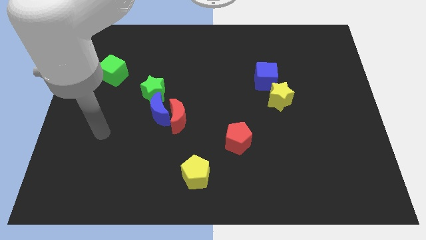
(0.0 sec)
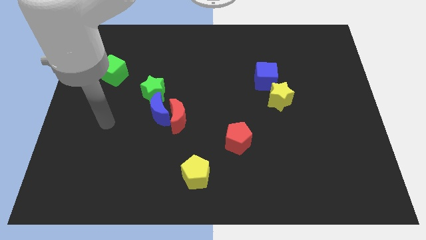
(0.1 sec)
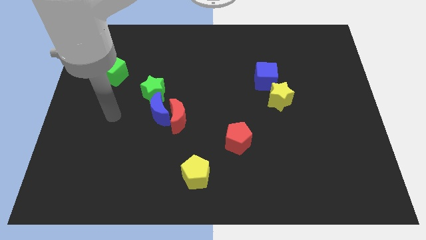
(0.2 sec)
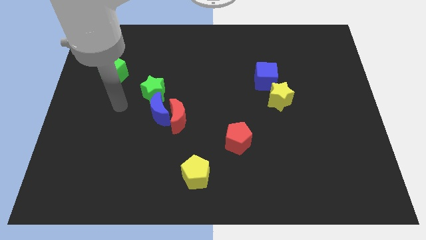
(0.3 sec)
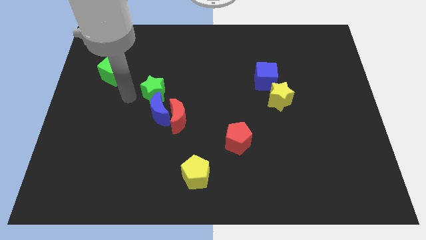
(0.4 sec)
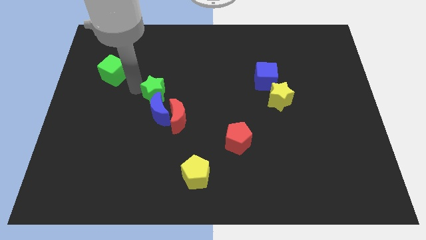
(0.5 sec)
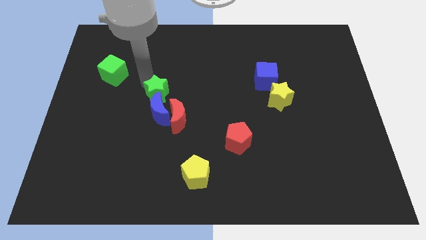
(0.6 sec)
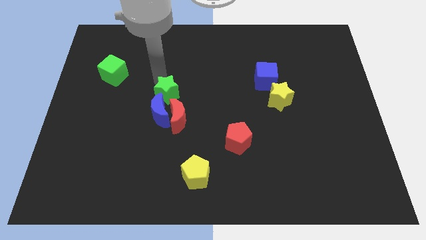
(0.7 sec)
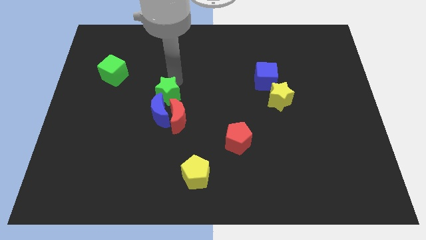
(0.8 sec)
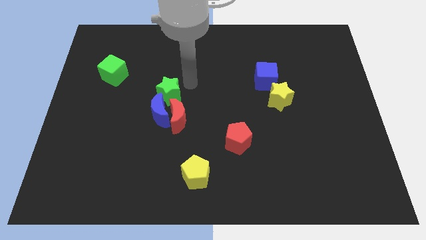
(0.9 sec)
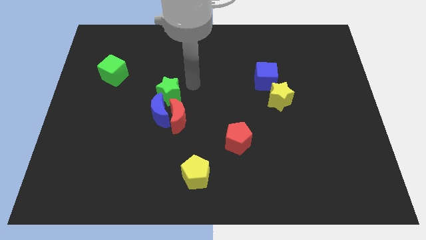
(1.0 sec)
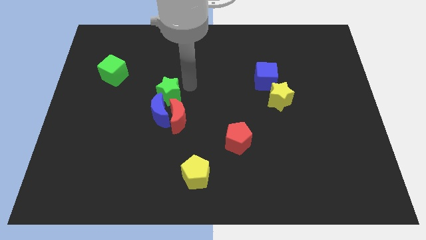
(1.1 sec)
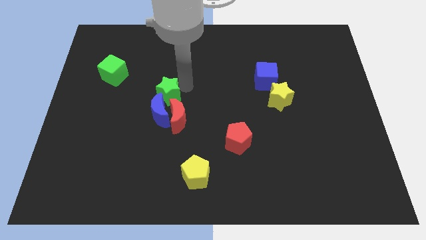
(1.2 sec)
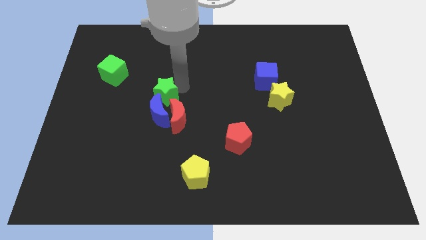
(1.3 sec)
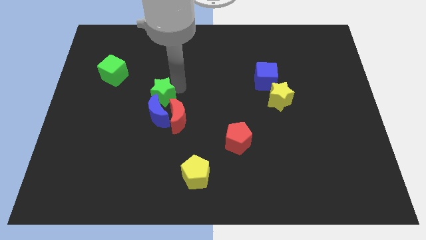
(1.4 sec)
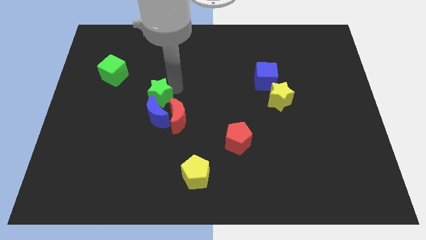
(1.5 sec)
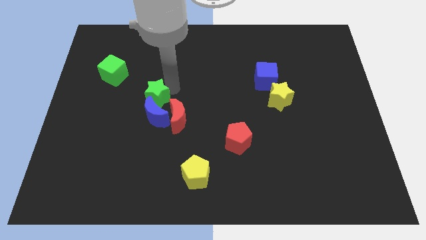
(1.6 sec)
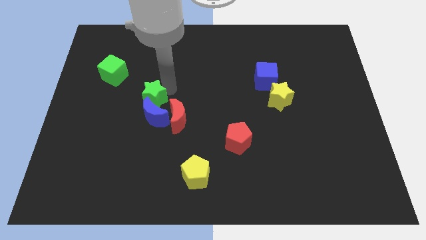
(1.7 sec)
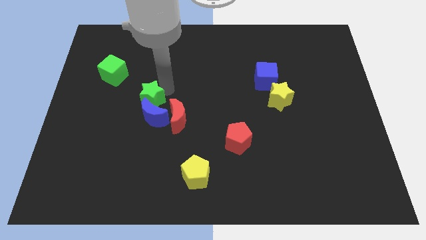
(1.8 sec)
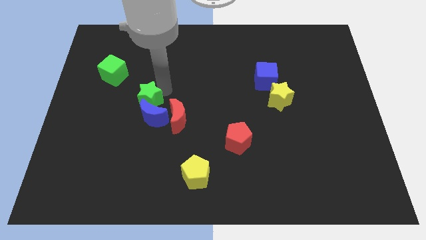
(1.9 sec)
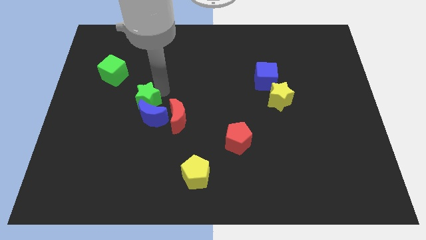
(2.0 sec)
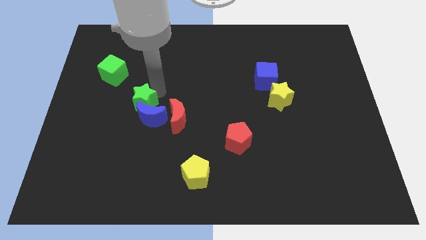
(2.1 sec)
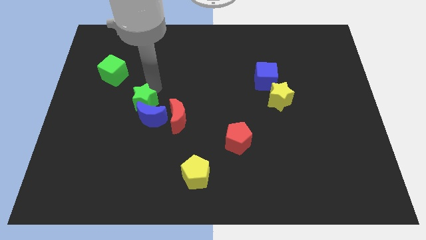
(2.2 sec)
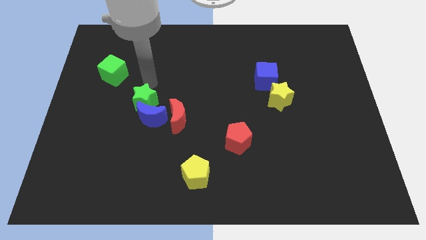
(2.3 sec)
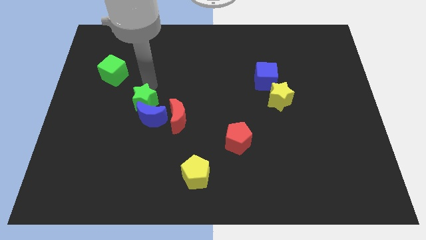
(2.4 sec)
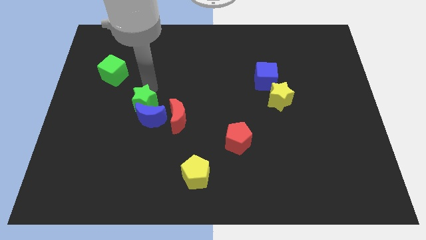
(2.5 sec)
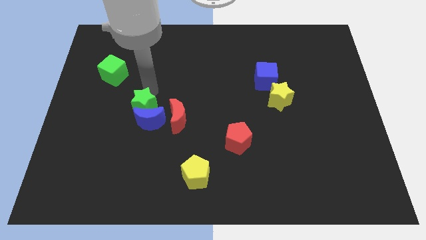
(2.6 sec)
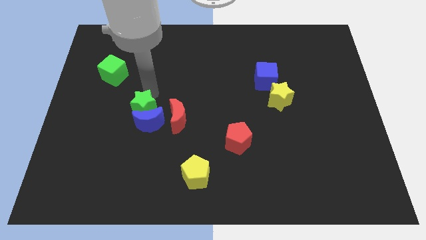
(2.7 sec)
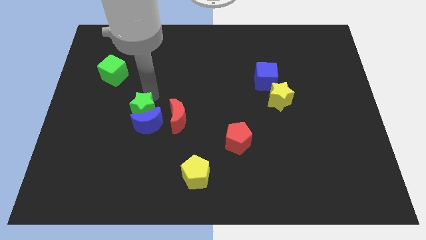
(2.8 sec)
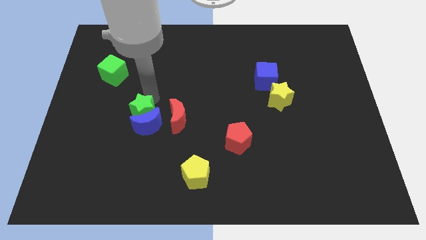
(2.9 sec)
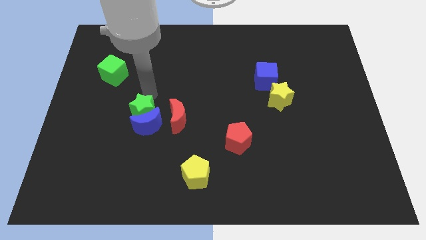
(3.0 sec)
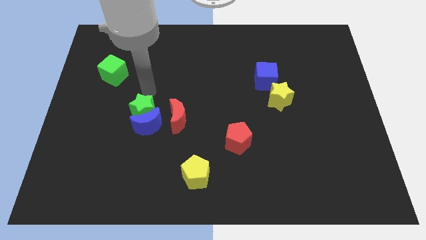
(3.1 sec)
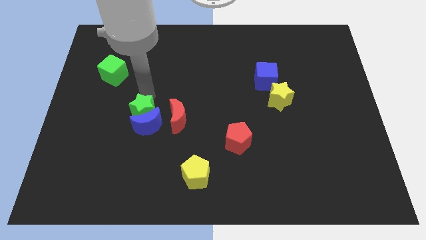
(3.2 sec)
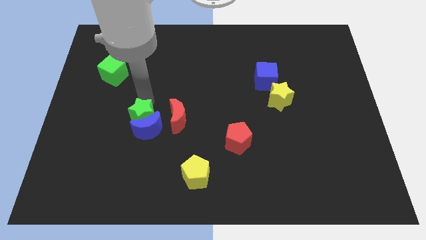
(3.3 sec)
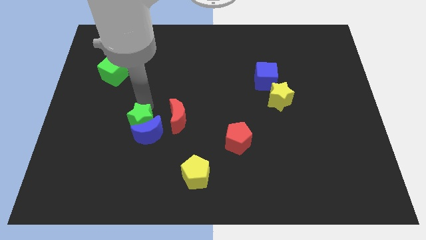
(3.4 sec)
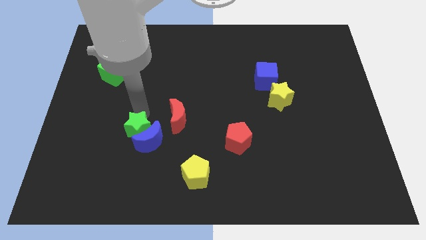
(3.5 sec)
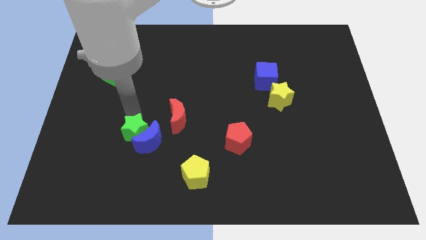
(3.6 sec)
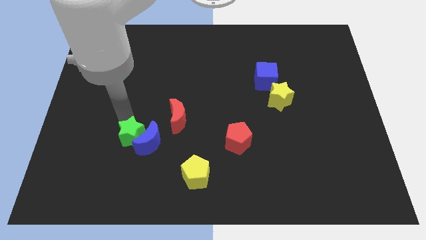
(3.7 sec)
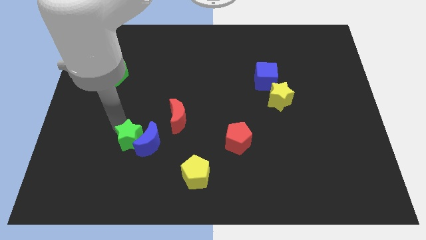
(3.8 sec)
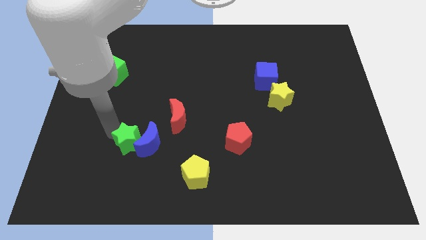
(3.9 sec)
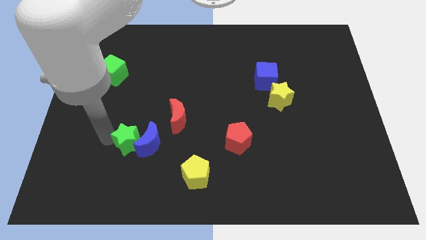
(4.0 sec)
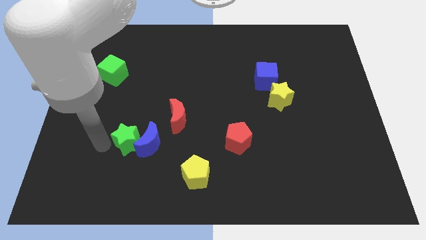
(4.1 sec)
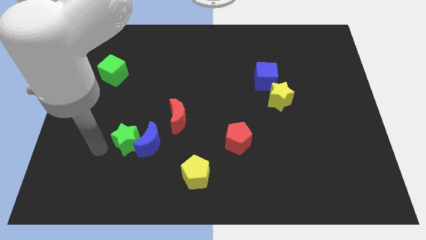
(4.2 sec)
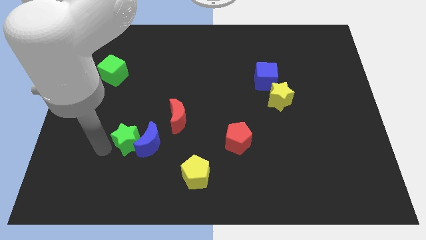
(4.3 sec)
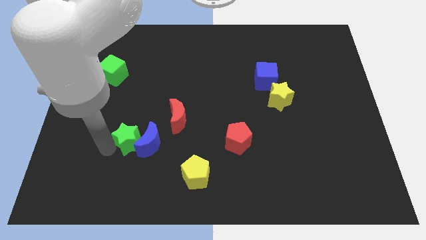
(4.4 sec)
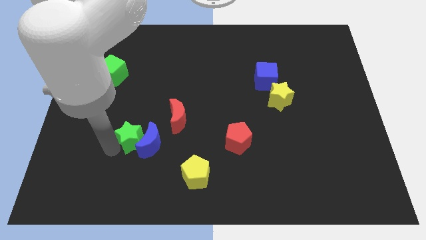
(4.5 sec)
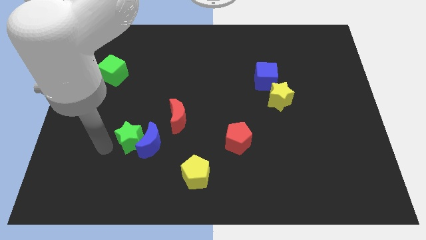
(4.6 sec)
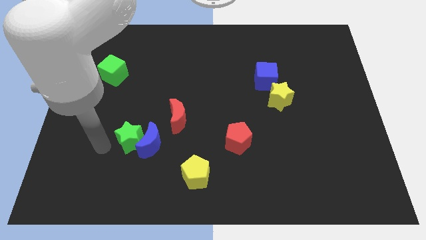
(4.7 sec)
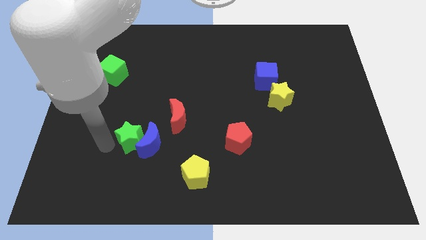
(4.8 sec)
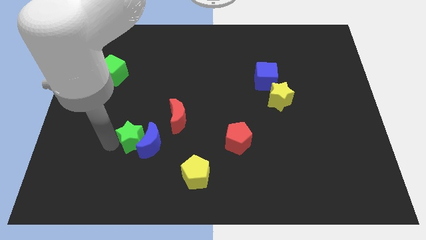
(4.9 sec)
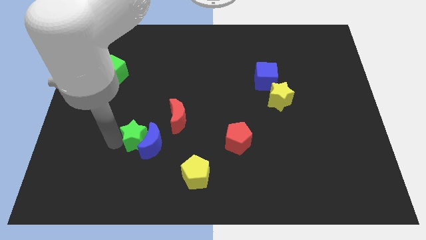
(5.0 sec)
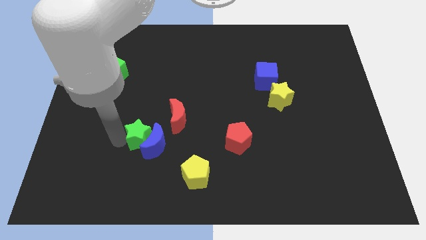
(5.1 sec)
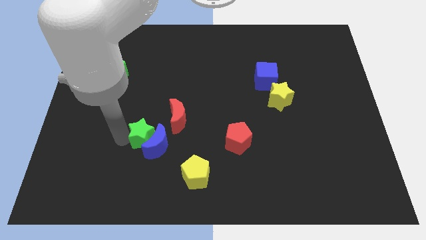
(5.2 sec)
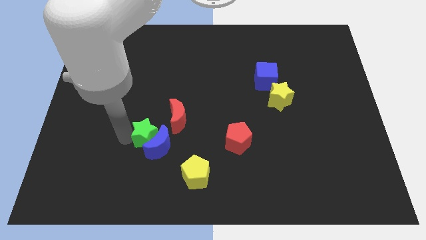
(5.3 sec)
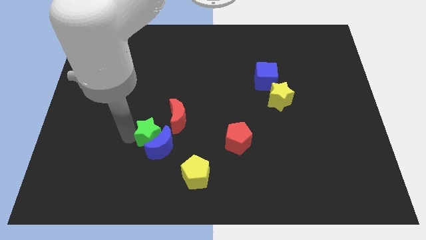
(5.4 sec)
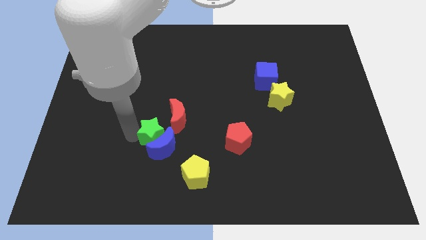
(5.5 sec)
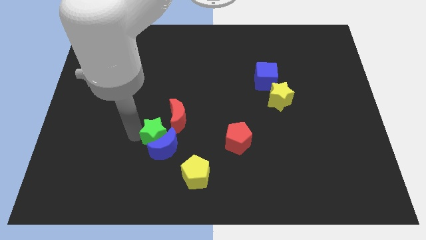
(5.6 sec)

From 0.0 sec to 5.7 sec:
move the green star down and right diagonally a little

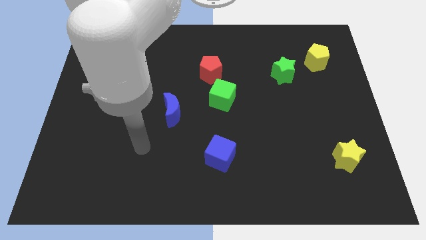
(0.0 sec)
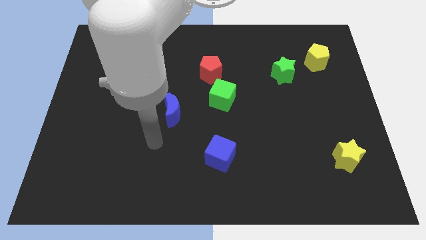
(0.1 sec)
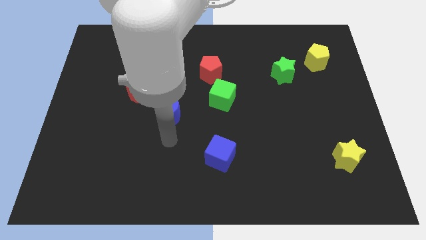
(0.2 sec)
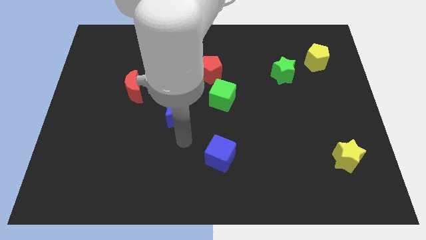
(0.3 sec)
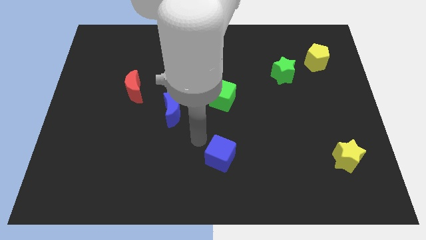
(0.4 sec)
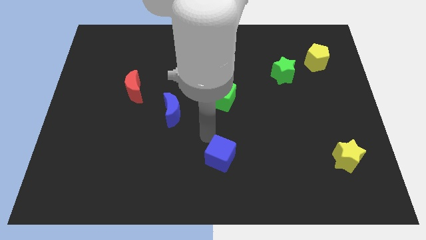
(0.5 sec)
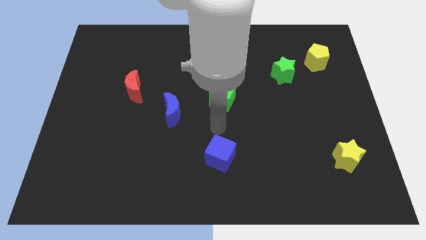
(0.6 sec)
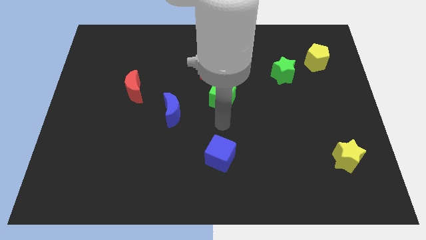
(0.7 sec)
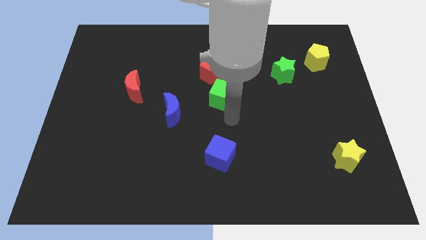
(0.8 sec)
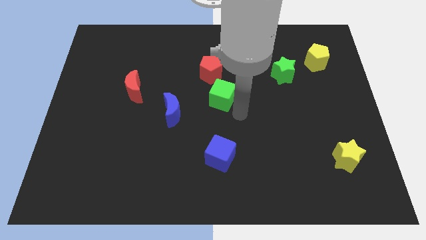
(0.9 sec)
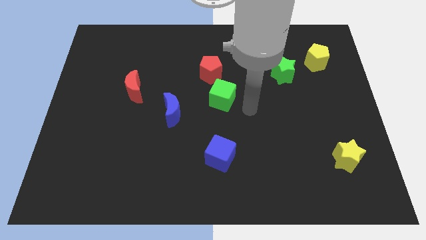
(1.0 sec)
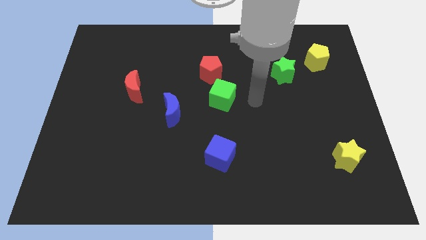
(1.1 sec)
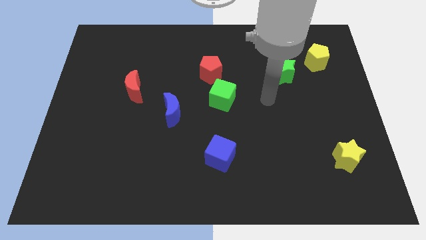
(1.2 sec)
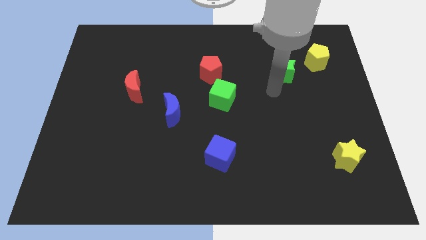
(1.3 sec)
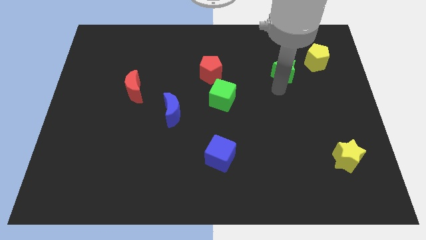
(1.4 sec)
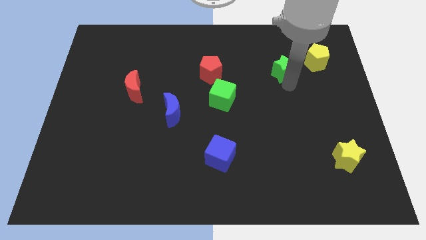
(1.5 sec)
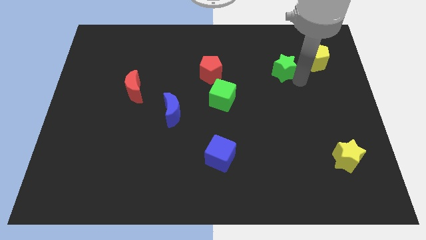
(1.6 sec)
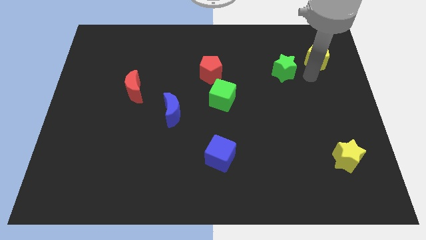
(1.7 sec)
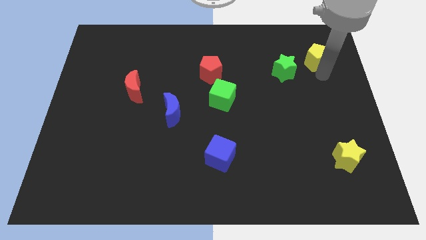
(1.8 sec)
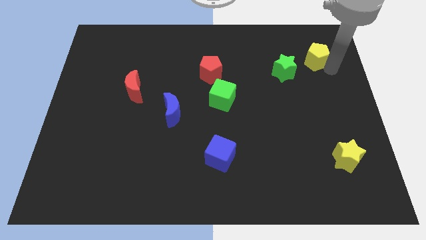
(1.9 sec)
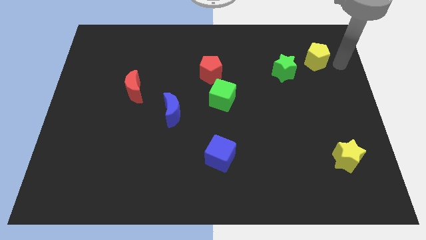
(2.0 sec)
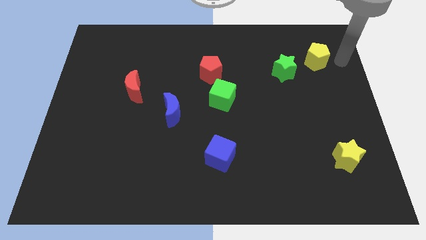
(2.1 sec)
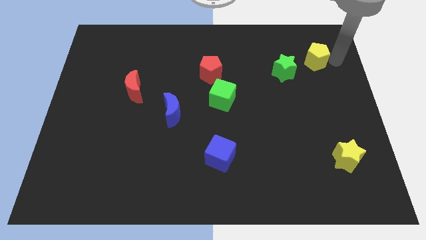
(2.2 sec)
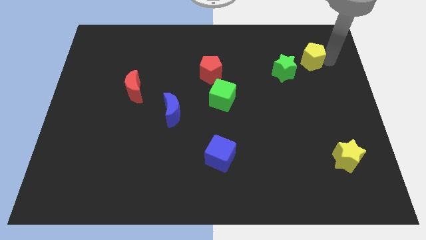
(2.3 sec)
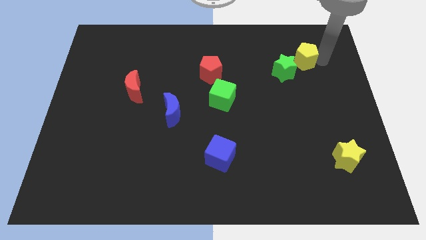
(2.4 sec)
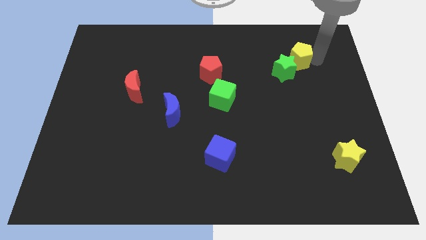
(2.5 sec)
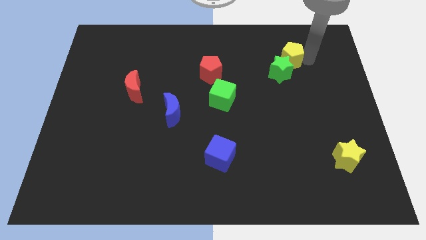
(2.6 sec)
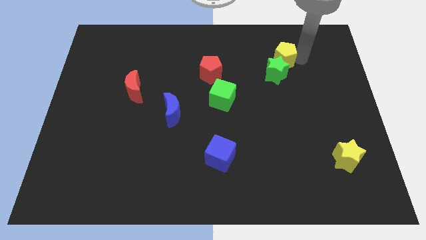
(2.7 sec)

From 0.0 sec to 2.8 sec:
slide the yellow pentagon a little bit left
